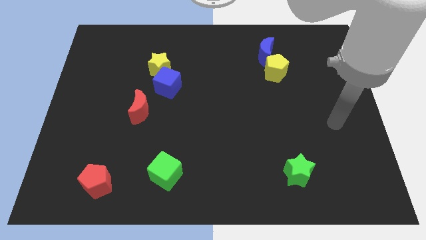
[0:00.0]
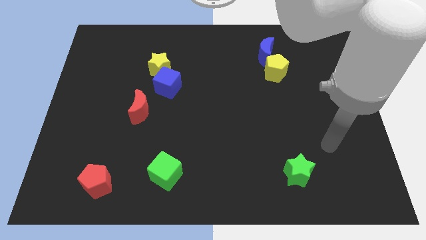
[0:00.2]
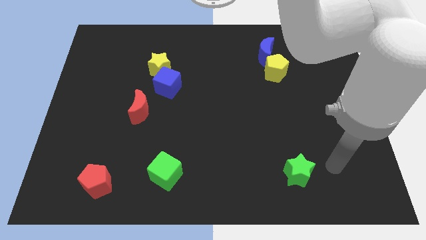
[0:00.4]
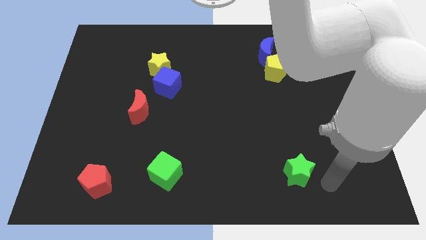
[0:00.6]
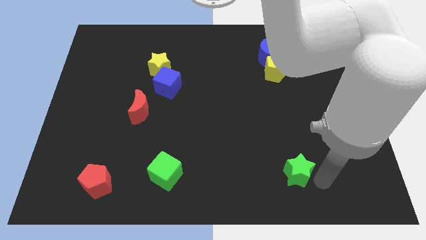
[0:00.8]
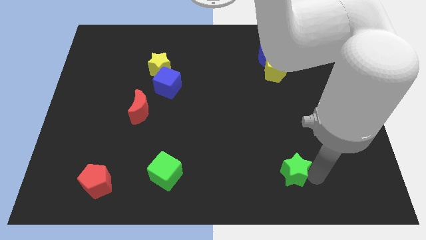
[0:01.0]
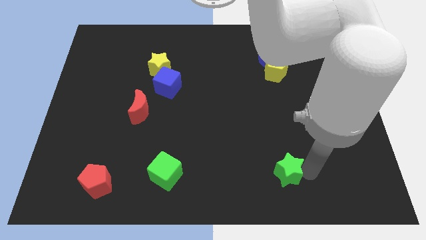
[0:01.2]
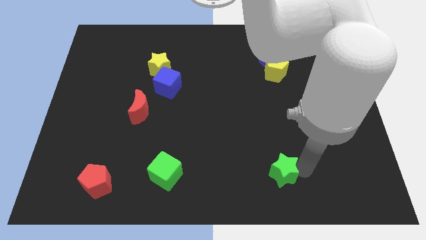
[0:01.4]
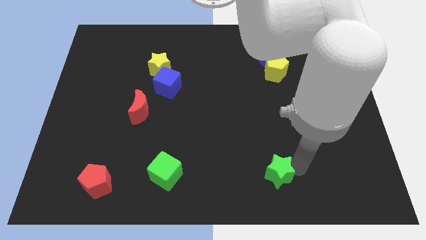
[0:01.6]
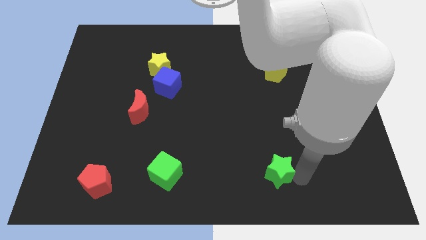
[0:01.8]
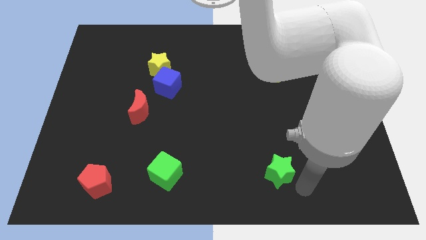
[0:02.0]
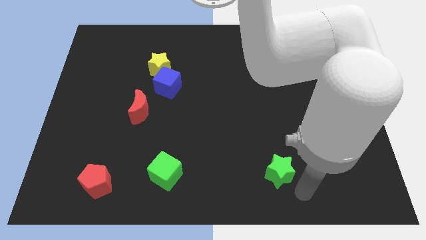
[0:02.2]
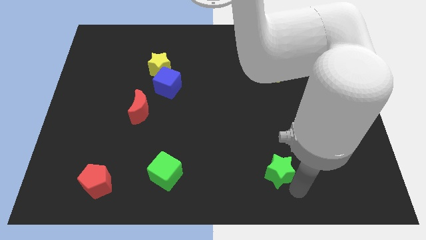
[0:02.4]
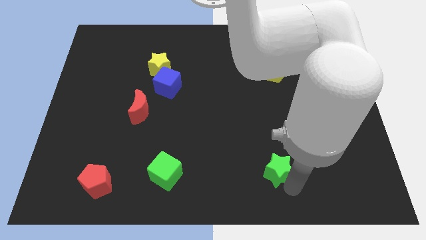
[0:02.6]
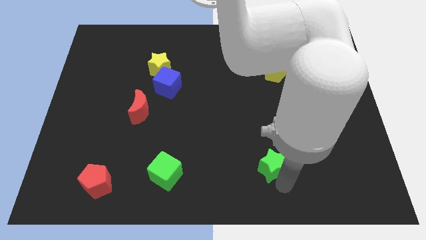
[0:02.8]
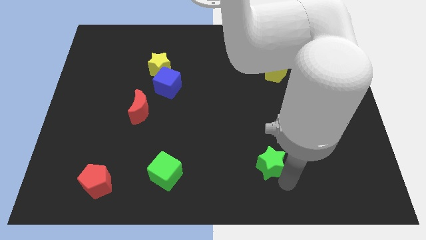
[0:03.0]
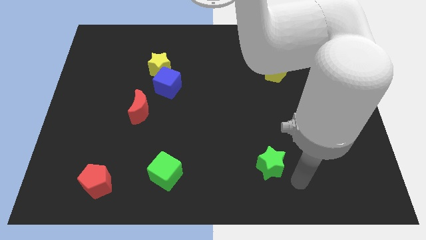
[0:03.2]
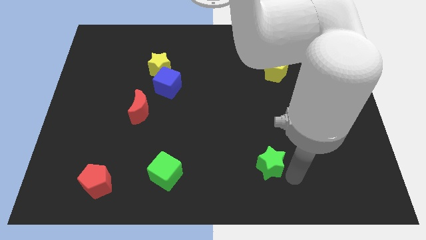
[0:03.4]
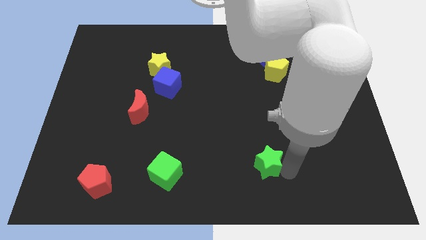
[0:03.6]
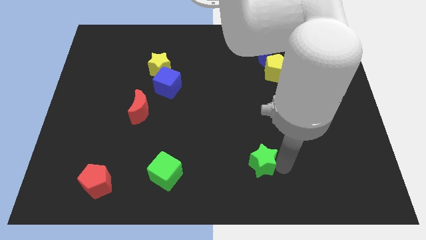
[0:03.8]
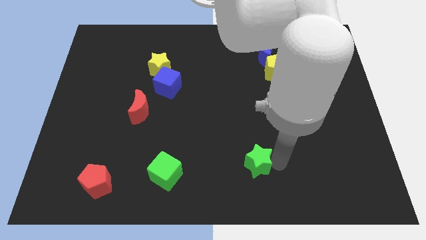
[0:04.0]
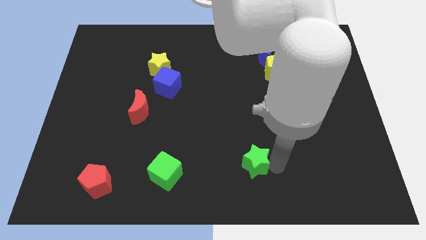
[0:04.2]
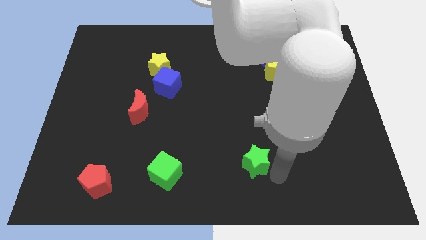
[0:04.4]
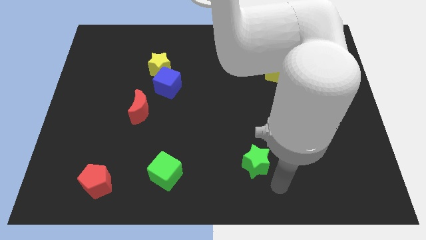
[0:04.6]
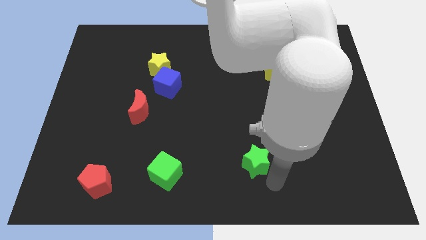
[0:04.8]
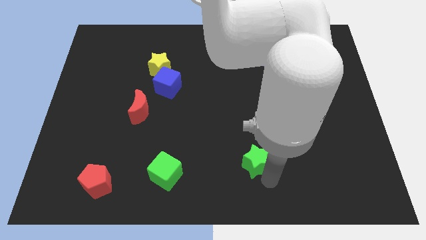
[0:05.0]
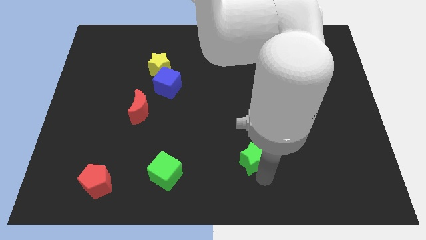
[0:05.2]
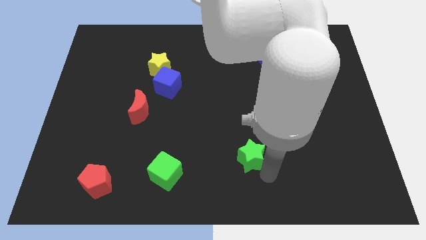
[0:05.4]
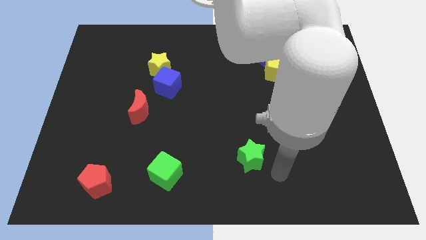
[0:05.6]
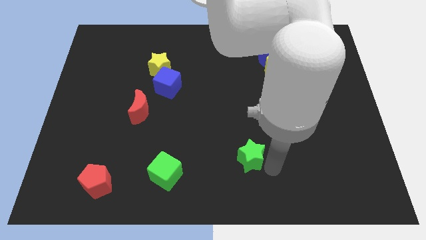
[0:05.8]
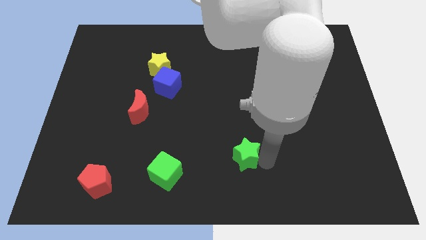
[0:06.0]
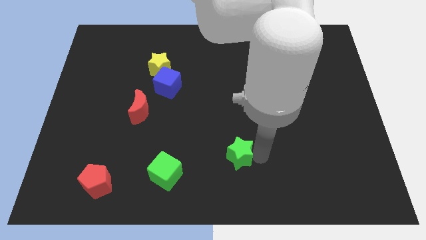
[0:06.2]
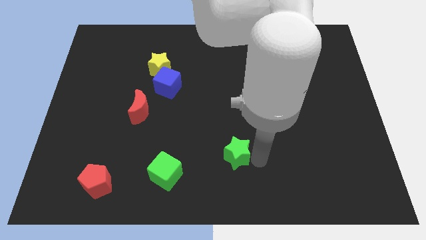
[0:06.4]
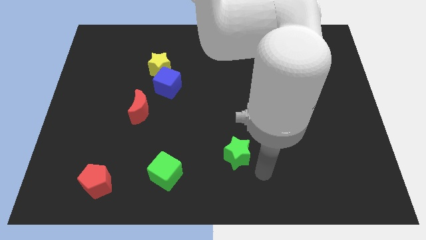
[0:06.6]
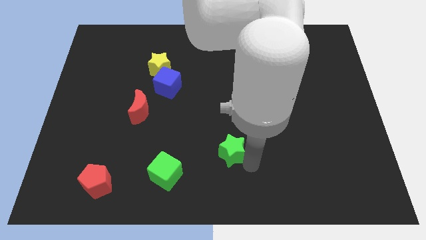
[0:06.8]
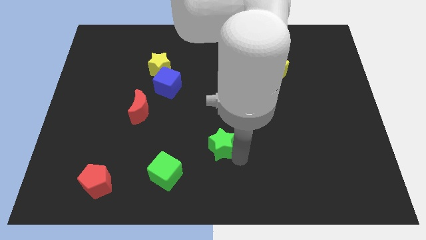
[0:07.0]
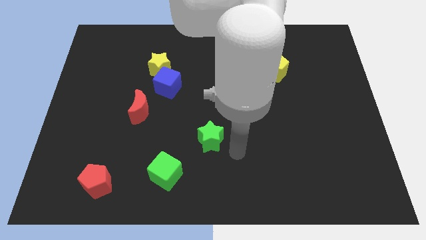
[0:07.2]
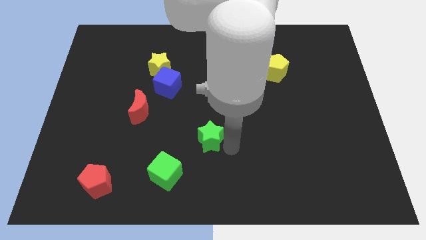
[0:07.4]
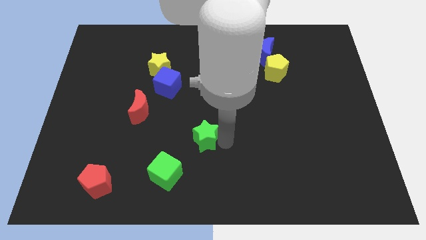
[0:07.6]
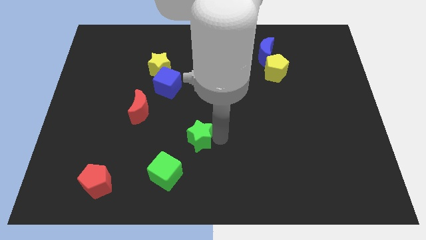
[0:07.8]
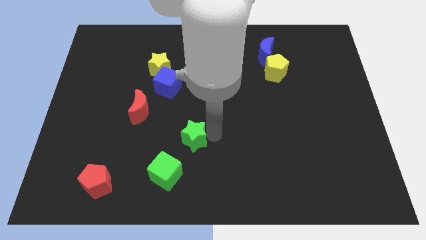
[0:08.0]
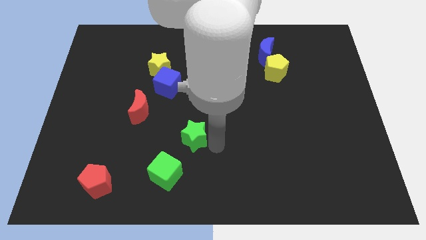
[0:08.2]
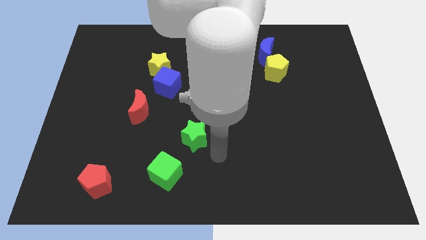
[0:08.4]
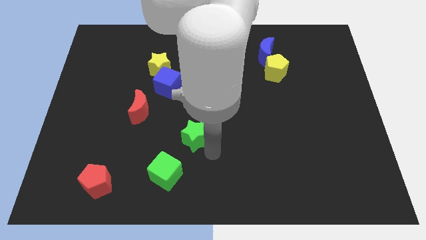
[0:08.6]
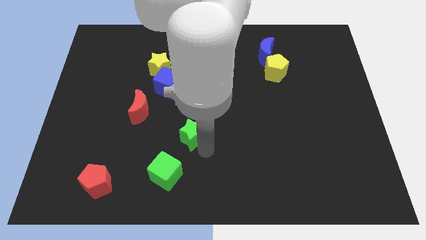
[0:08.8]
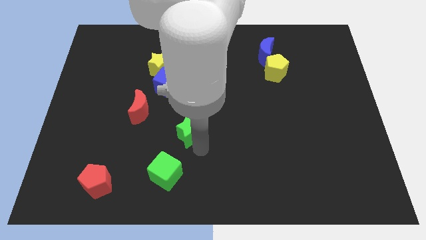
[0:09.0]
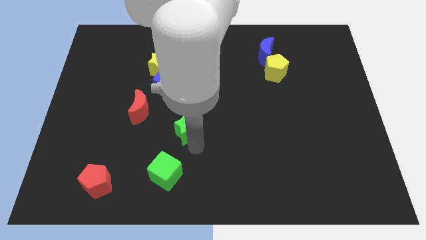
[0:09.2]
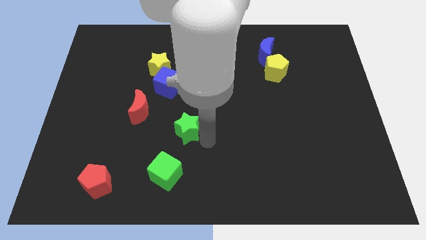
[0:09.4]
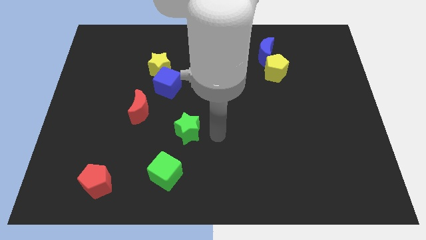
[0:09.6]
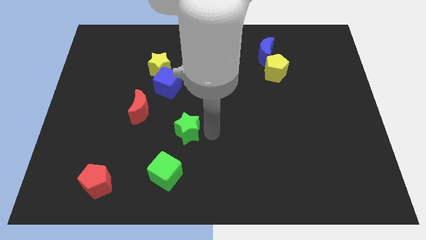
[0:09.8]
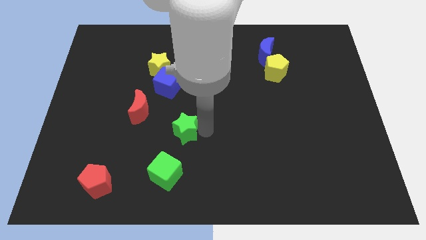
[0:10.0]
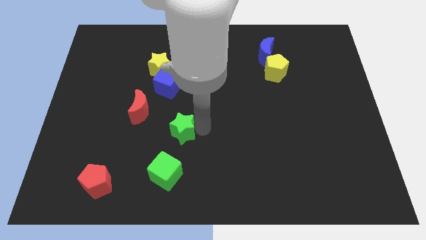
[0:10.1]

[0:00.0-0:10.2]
move the green star to the bottom right side of the red moon

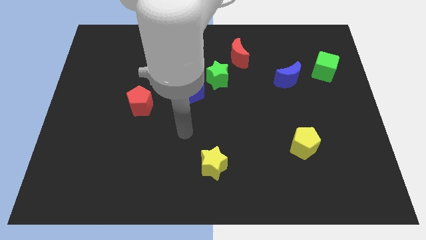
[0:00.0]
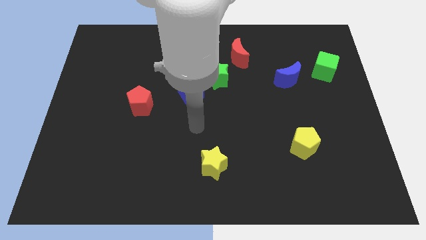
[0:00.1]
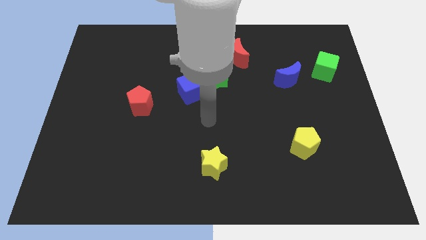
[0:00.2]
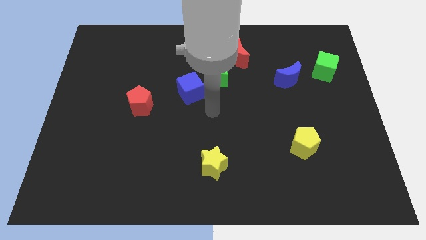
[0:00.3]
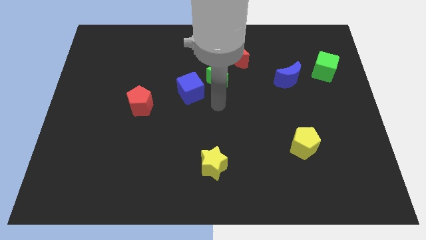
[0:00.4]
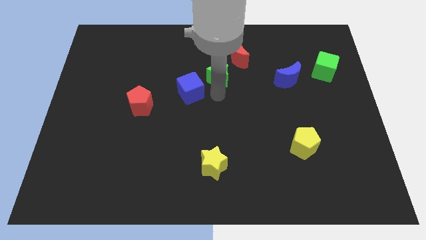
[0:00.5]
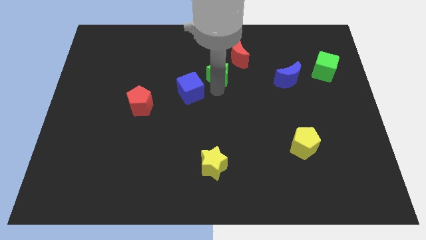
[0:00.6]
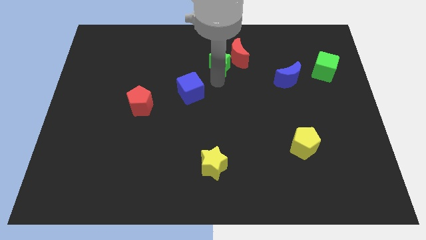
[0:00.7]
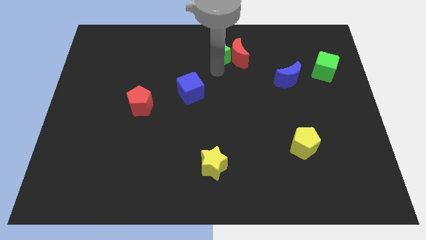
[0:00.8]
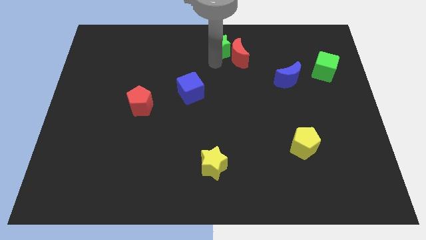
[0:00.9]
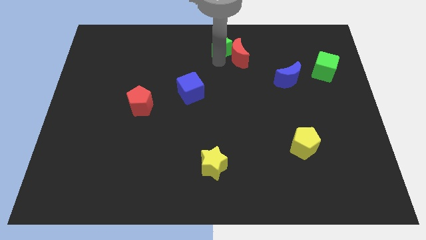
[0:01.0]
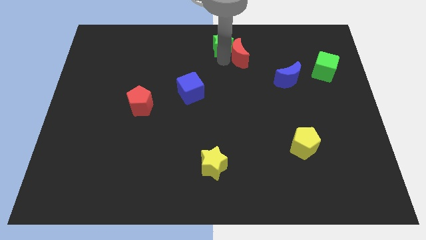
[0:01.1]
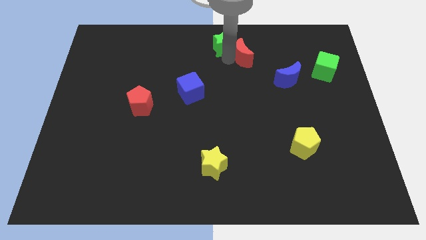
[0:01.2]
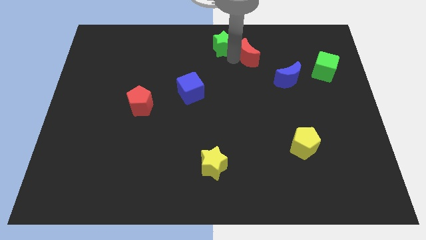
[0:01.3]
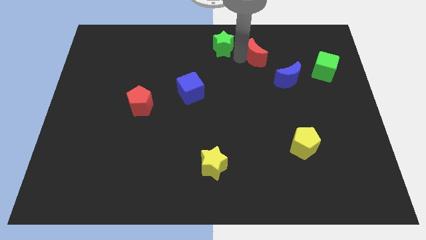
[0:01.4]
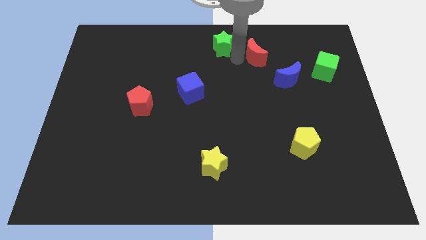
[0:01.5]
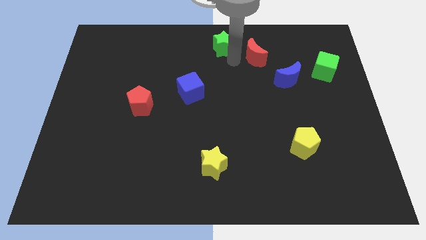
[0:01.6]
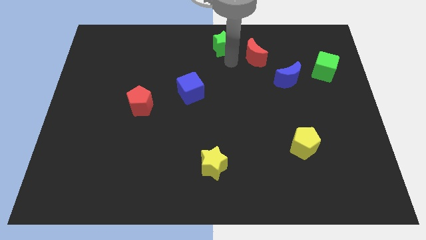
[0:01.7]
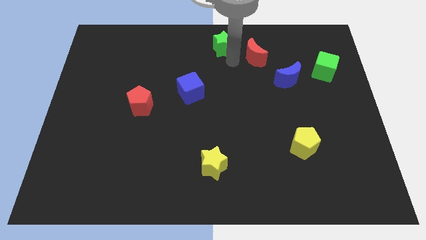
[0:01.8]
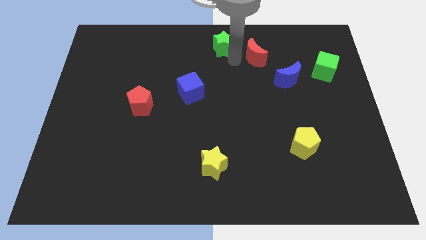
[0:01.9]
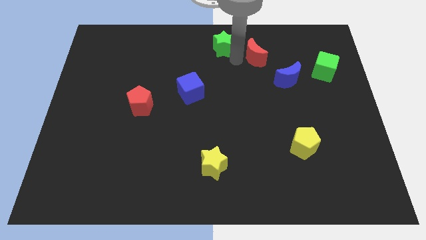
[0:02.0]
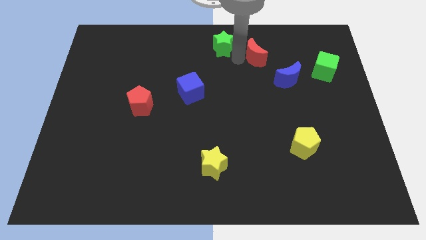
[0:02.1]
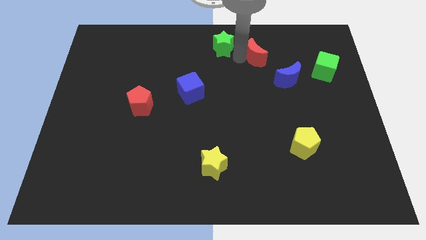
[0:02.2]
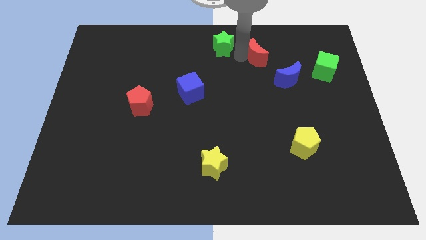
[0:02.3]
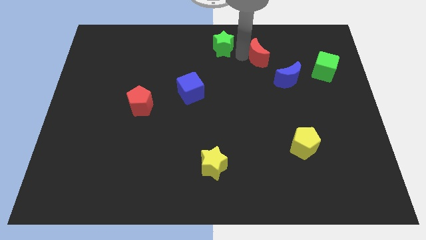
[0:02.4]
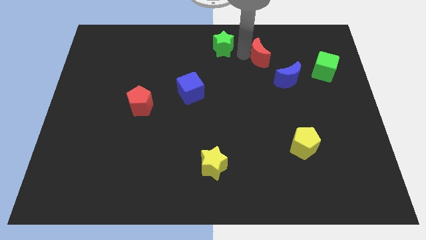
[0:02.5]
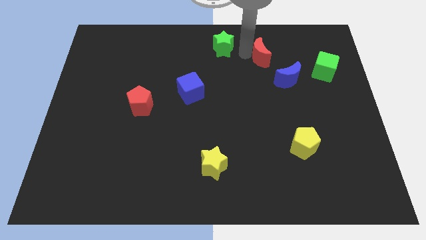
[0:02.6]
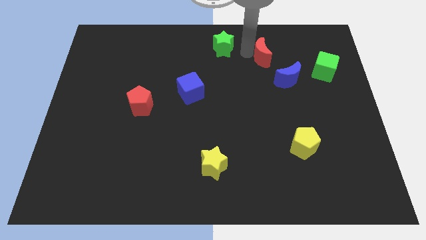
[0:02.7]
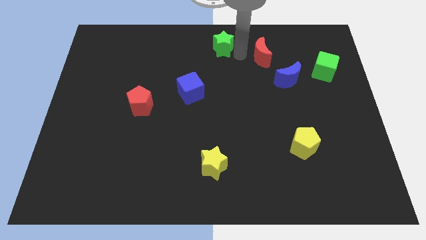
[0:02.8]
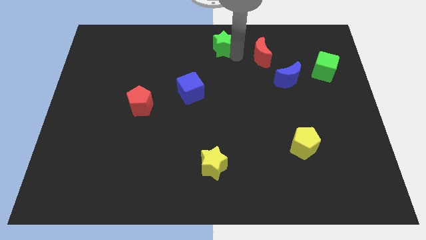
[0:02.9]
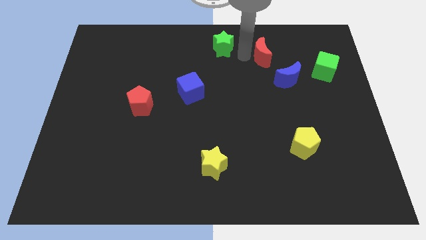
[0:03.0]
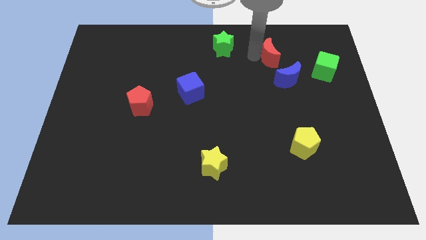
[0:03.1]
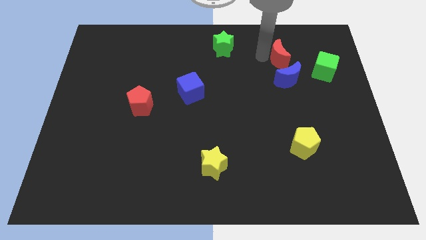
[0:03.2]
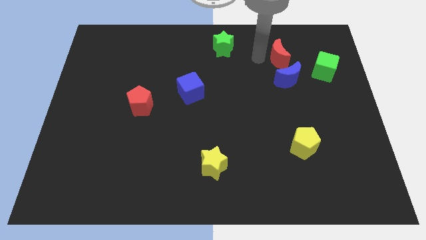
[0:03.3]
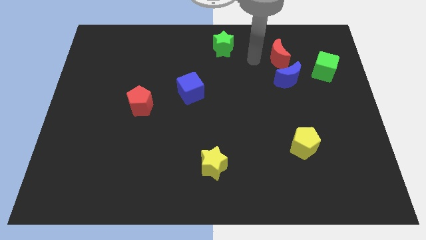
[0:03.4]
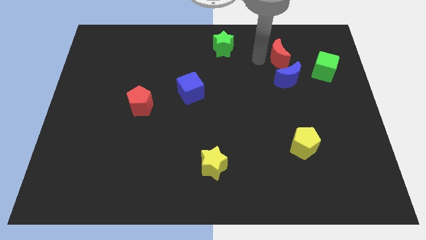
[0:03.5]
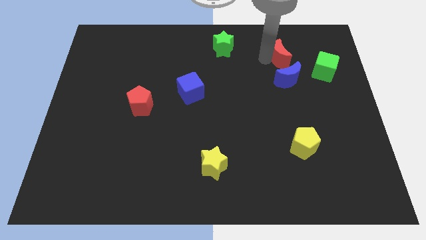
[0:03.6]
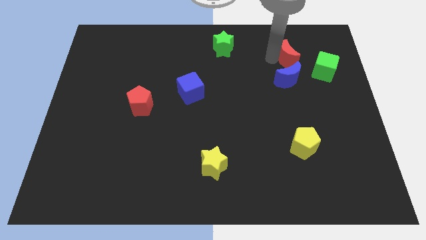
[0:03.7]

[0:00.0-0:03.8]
push the red moon to the top left of the green cube
